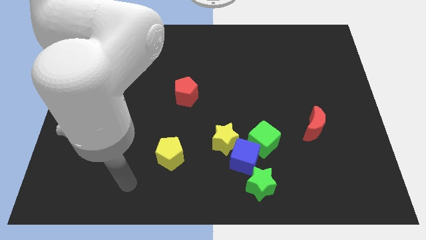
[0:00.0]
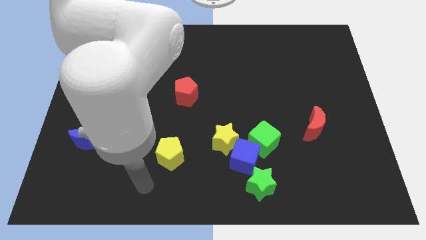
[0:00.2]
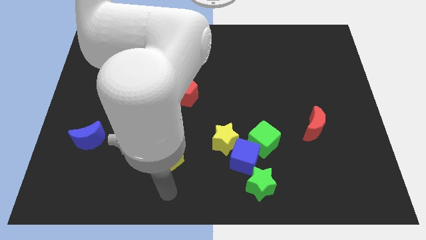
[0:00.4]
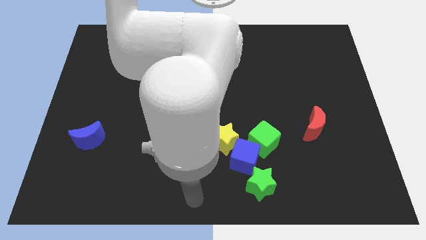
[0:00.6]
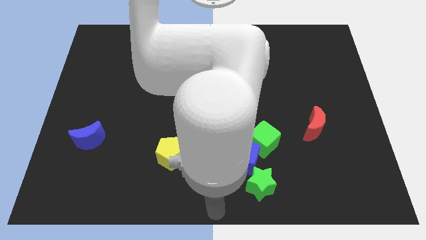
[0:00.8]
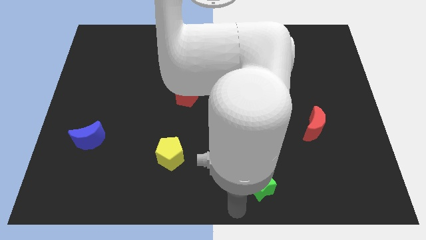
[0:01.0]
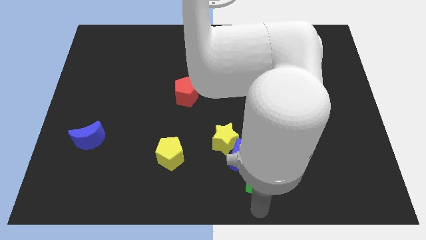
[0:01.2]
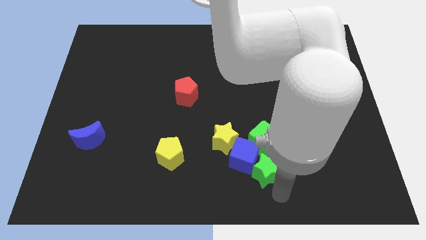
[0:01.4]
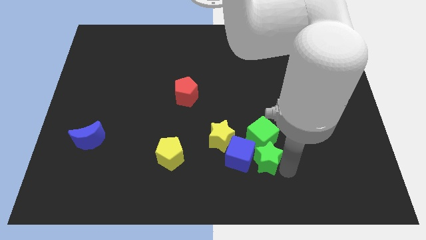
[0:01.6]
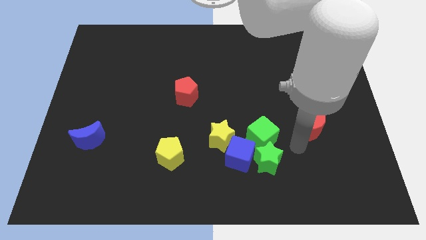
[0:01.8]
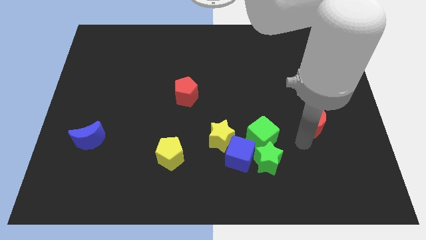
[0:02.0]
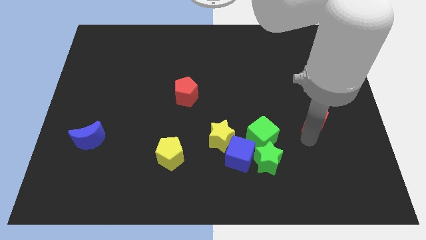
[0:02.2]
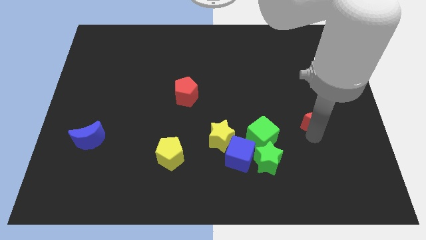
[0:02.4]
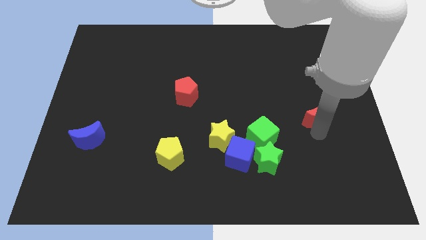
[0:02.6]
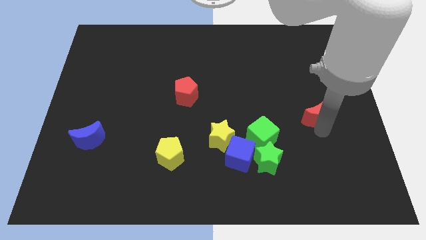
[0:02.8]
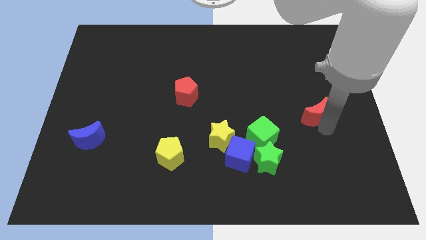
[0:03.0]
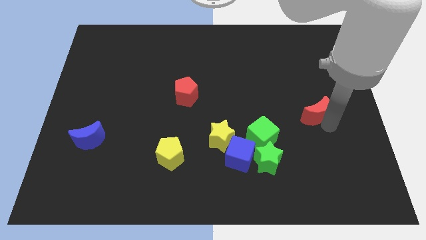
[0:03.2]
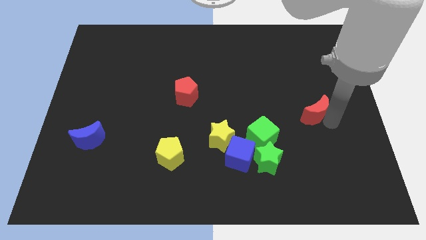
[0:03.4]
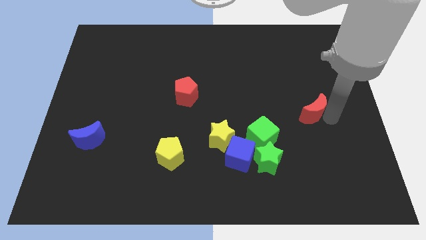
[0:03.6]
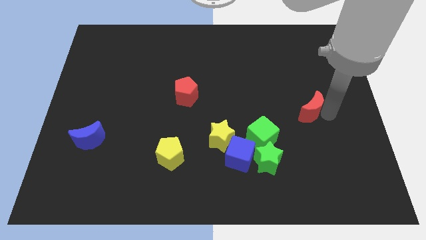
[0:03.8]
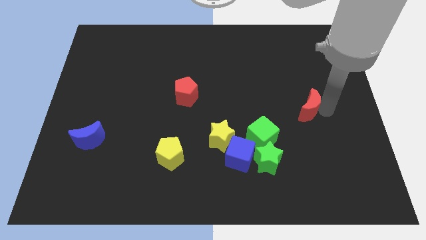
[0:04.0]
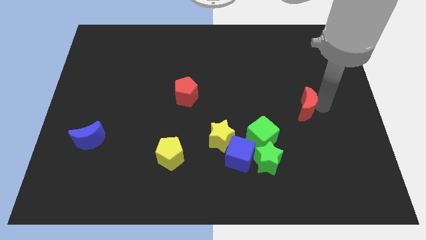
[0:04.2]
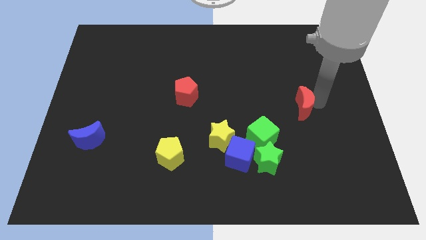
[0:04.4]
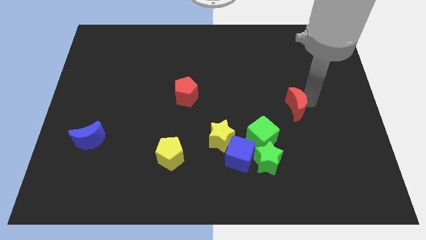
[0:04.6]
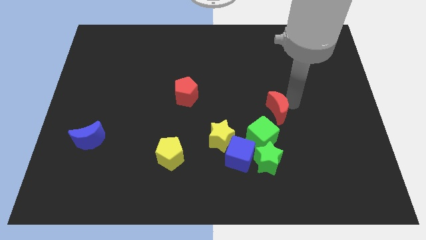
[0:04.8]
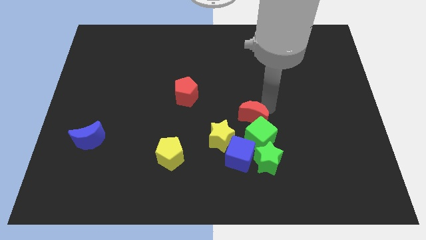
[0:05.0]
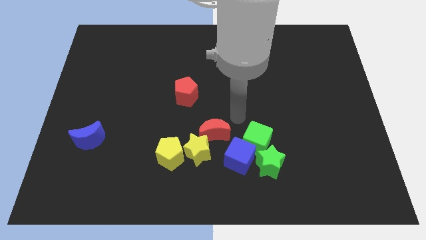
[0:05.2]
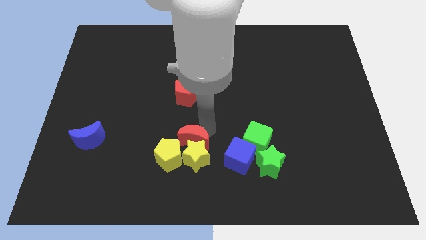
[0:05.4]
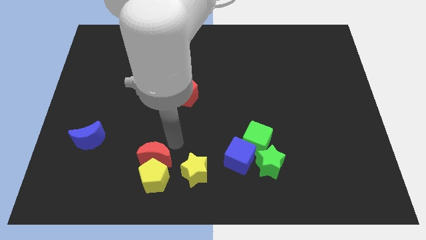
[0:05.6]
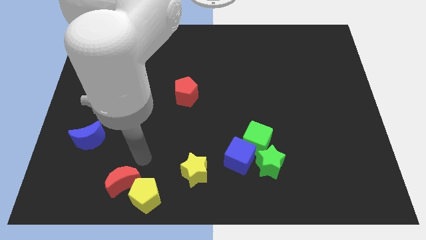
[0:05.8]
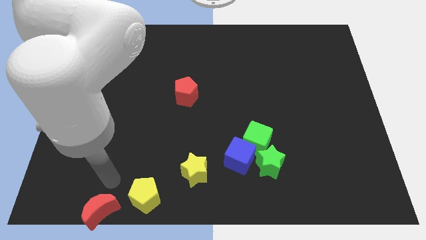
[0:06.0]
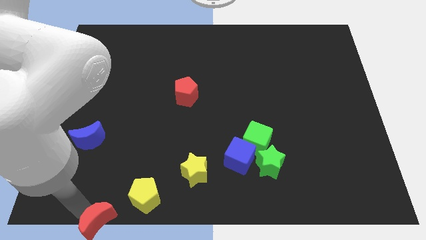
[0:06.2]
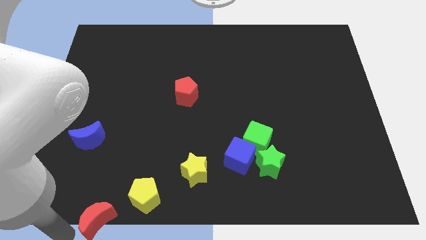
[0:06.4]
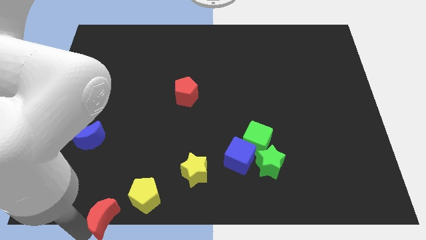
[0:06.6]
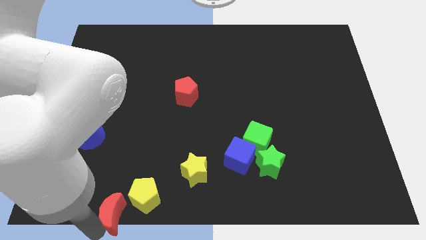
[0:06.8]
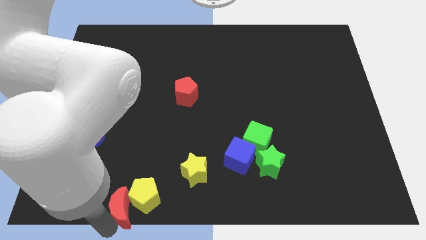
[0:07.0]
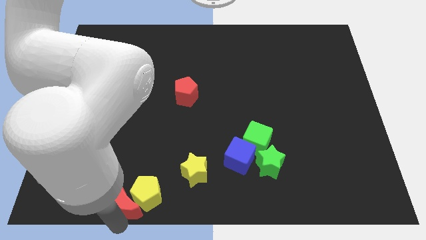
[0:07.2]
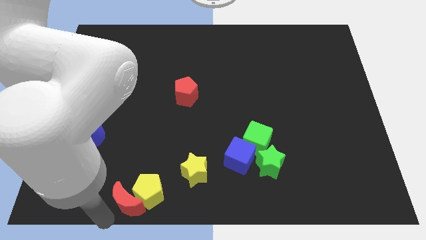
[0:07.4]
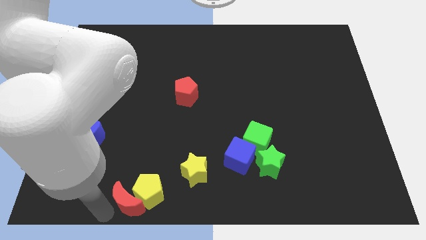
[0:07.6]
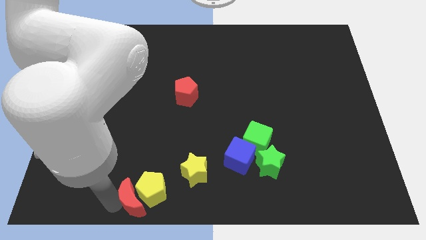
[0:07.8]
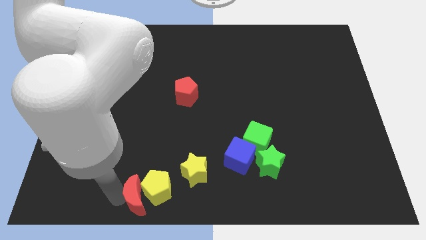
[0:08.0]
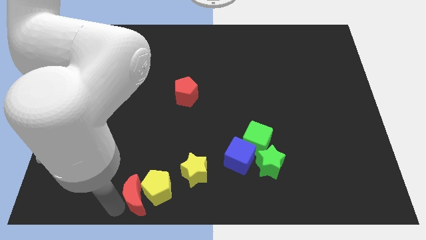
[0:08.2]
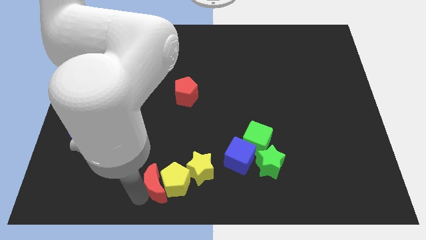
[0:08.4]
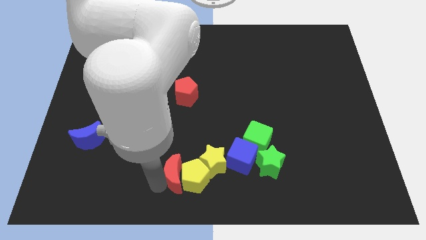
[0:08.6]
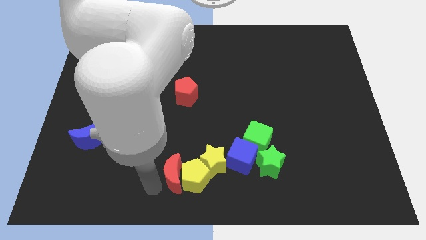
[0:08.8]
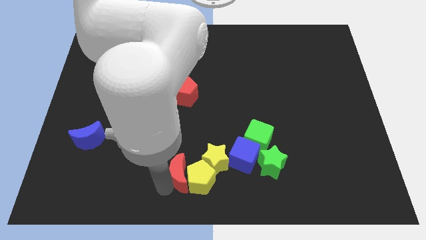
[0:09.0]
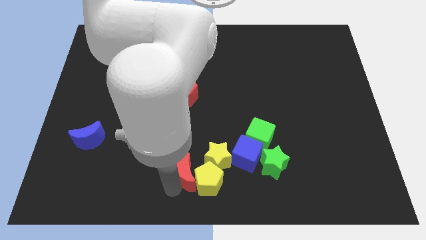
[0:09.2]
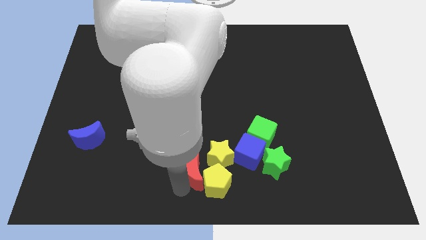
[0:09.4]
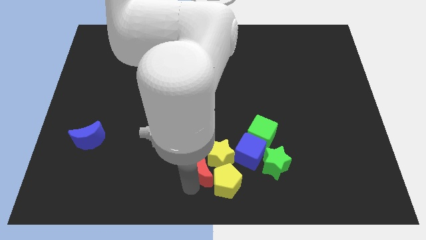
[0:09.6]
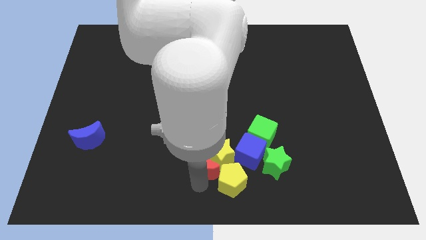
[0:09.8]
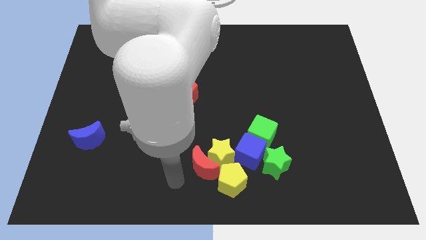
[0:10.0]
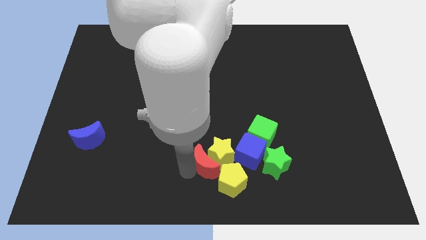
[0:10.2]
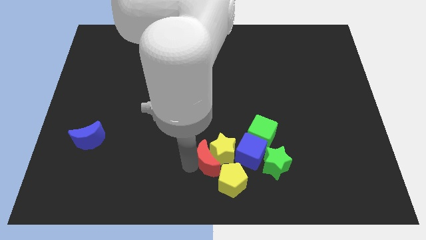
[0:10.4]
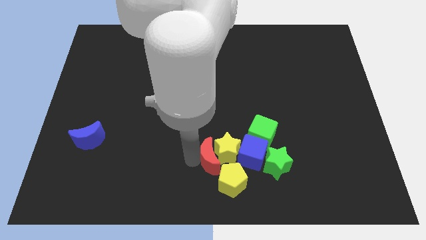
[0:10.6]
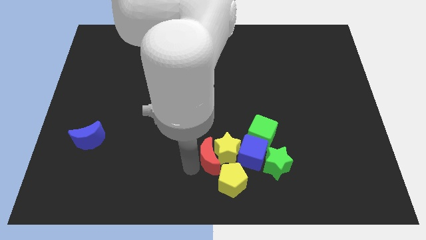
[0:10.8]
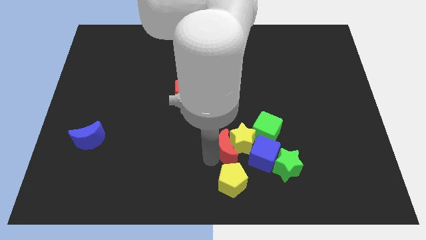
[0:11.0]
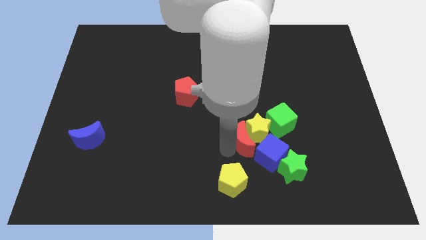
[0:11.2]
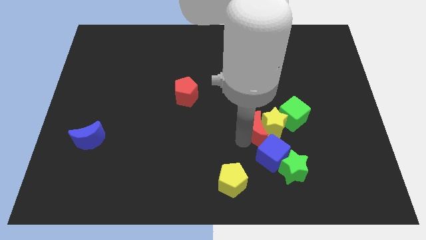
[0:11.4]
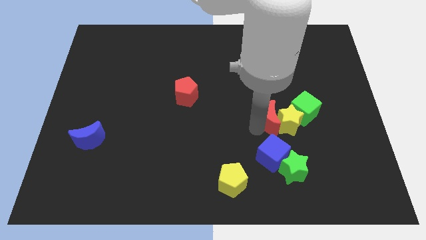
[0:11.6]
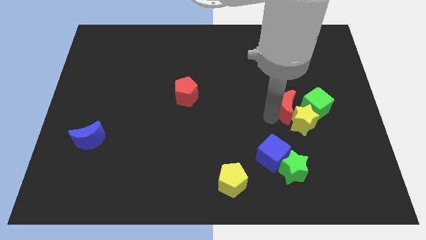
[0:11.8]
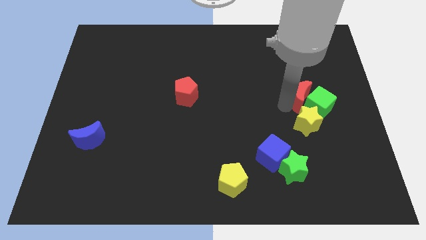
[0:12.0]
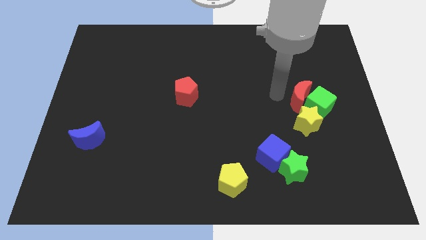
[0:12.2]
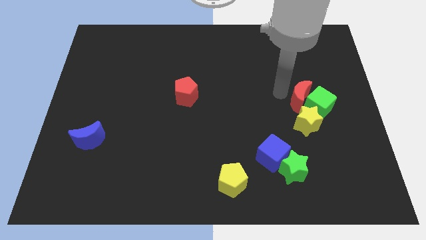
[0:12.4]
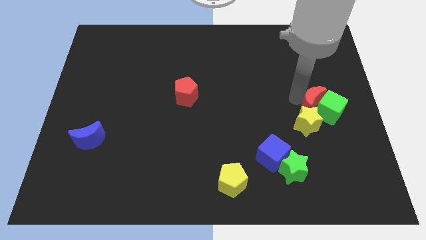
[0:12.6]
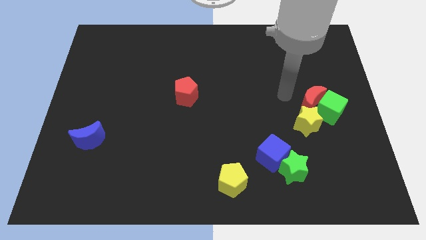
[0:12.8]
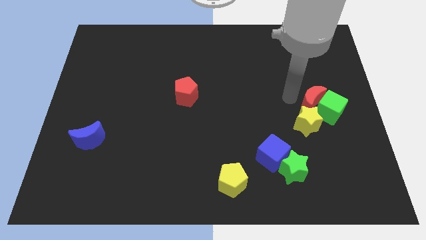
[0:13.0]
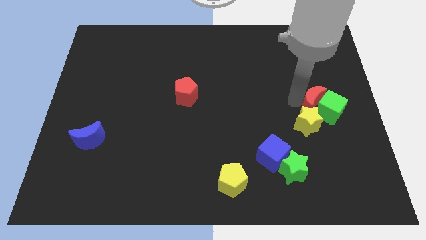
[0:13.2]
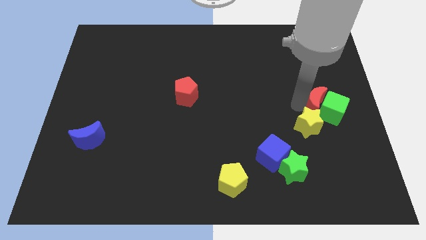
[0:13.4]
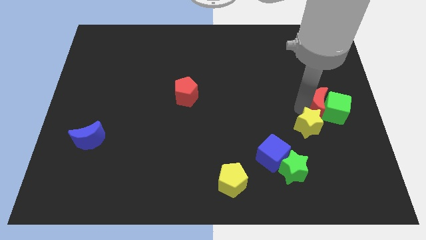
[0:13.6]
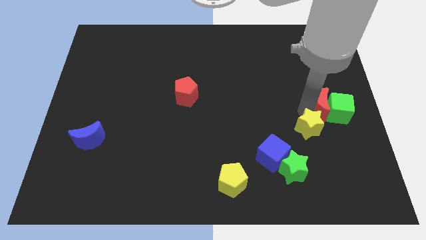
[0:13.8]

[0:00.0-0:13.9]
slide the red moon to the right side of the board
